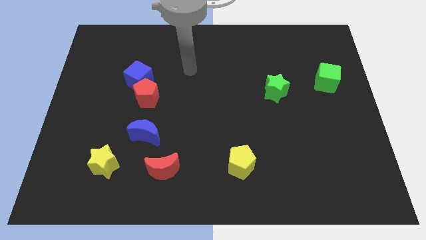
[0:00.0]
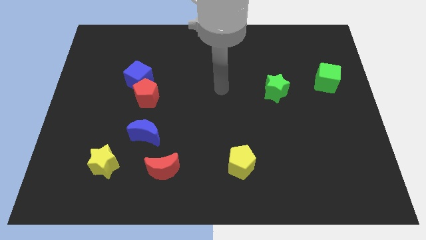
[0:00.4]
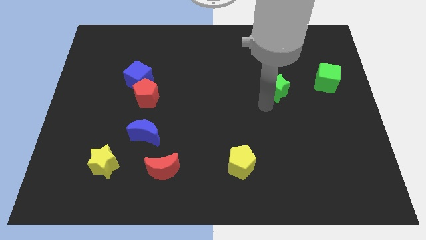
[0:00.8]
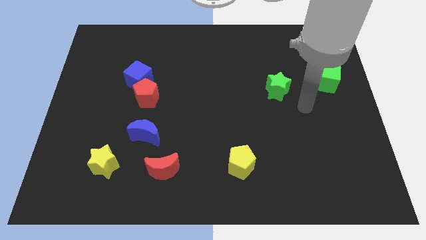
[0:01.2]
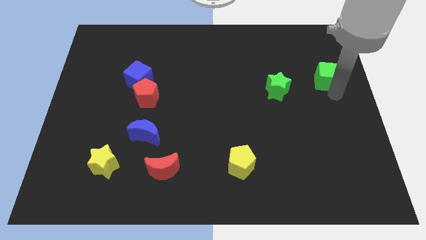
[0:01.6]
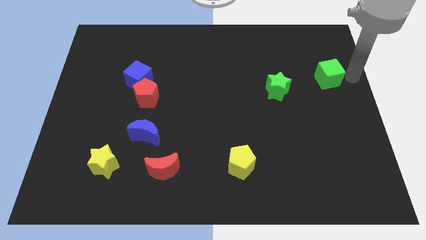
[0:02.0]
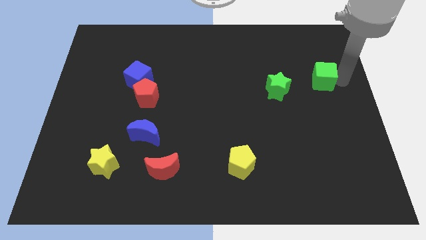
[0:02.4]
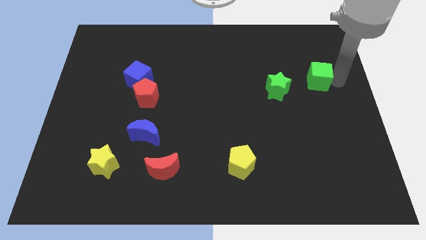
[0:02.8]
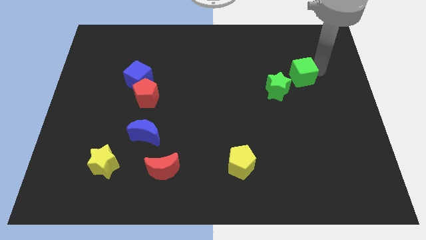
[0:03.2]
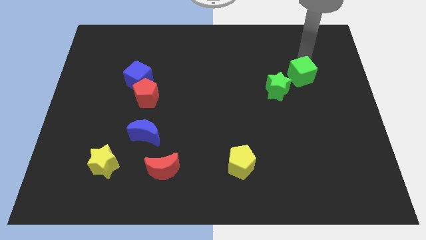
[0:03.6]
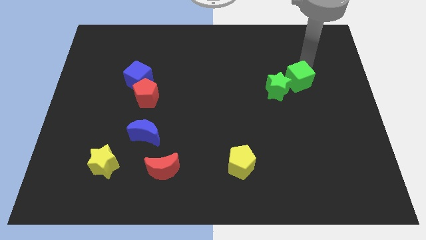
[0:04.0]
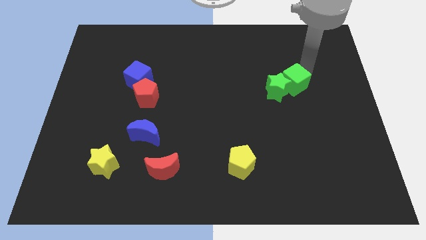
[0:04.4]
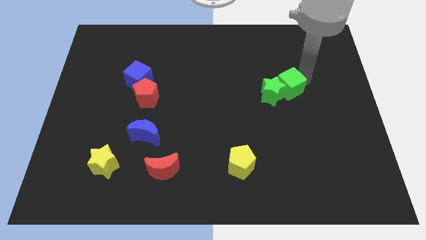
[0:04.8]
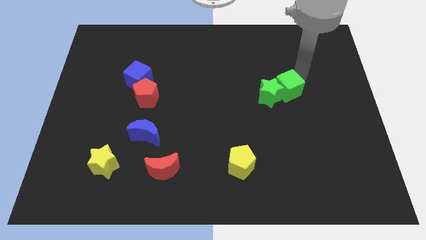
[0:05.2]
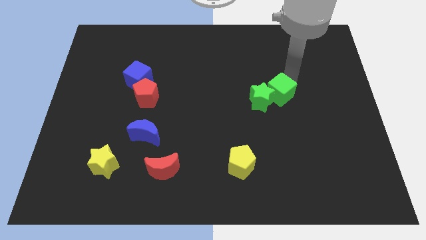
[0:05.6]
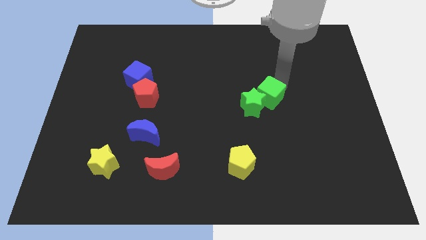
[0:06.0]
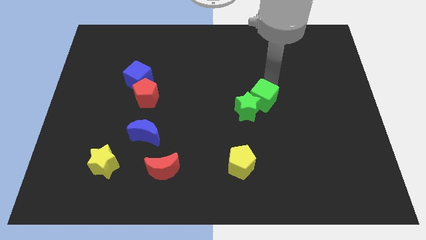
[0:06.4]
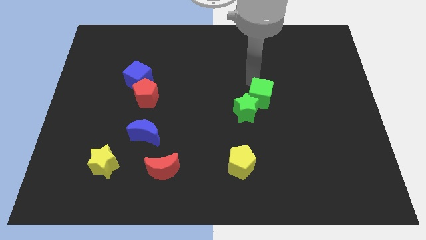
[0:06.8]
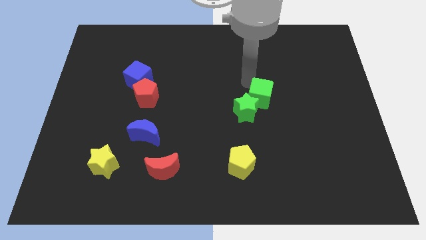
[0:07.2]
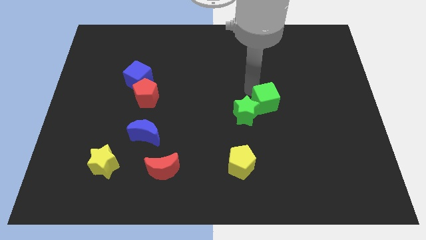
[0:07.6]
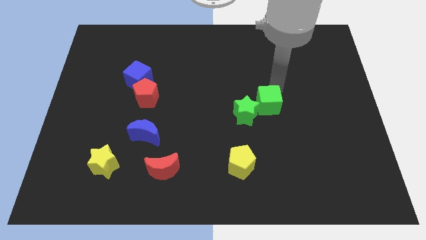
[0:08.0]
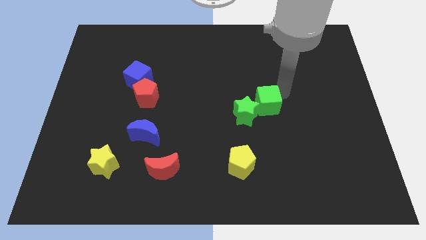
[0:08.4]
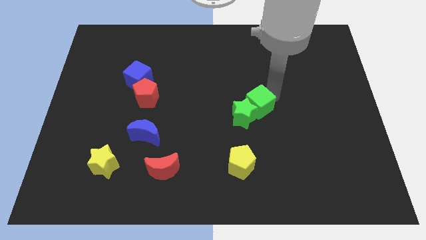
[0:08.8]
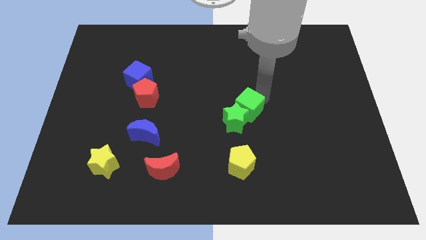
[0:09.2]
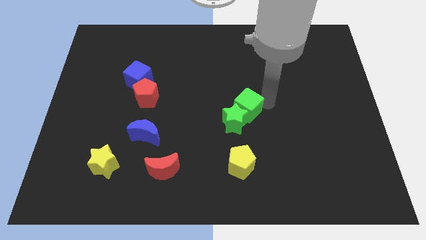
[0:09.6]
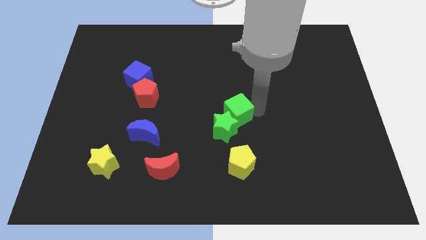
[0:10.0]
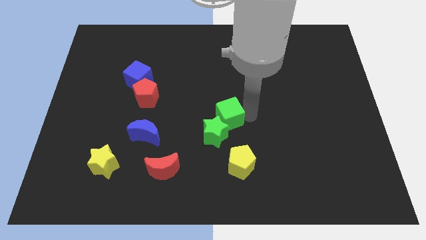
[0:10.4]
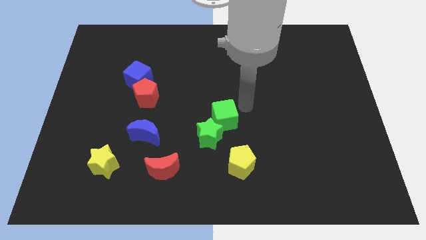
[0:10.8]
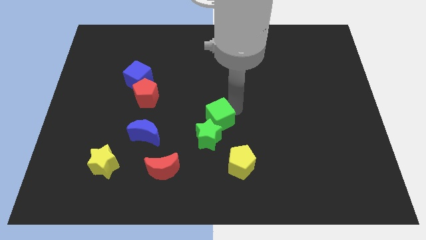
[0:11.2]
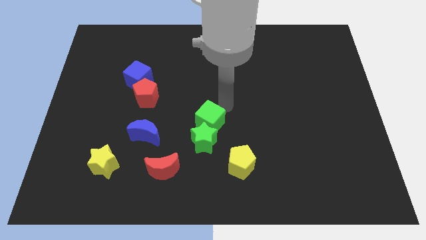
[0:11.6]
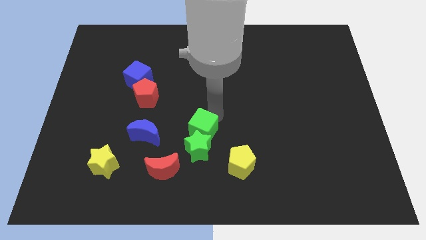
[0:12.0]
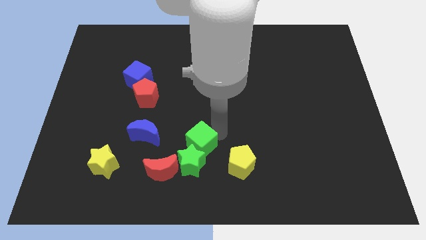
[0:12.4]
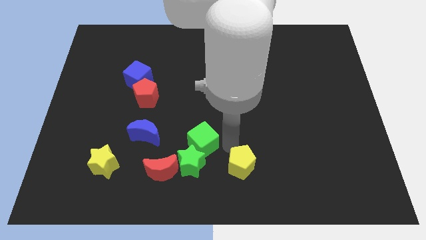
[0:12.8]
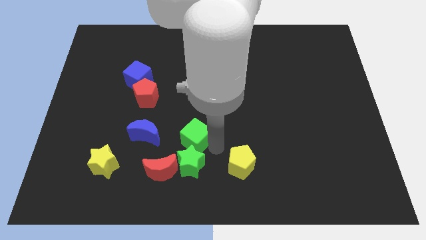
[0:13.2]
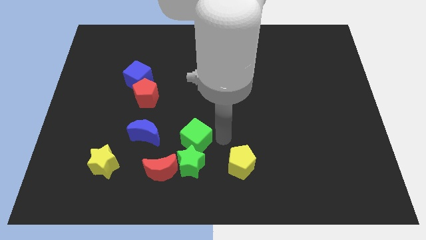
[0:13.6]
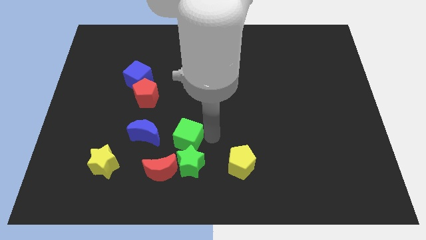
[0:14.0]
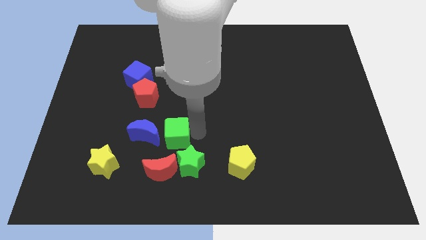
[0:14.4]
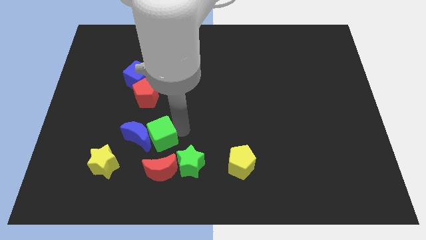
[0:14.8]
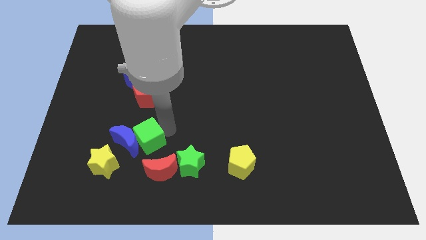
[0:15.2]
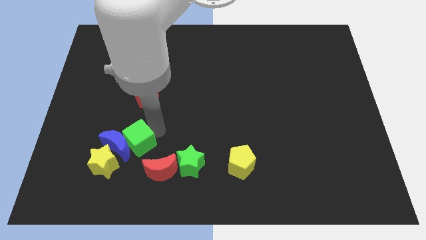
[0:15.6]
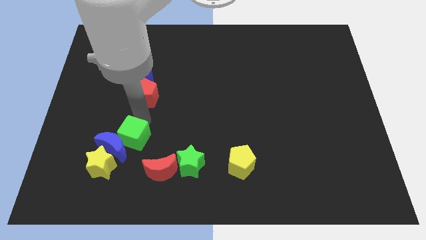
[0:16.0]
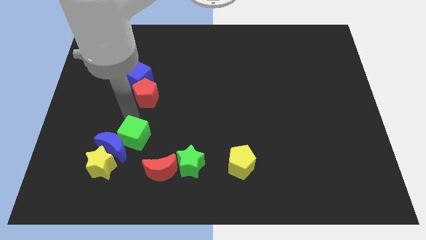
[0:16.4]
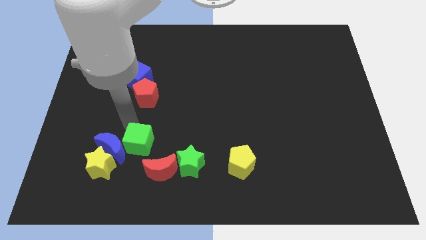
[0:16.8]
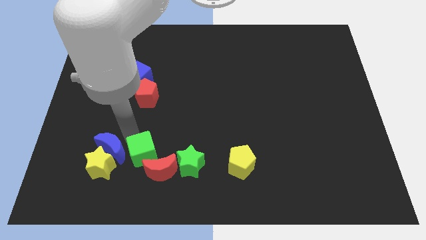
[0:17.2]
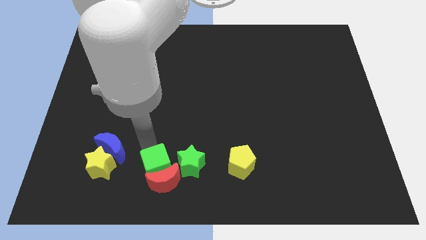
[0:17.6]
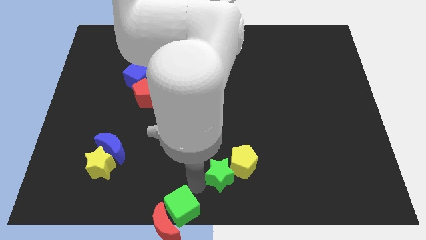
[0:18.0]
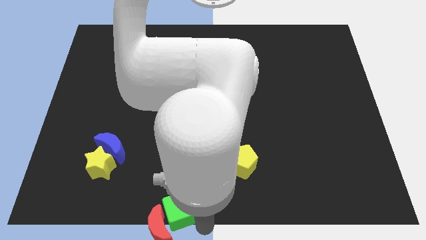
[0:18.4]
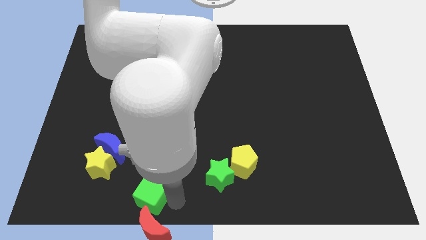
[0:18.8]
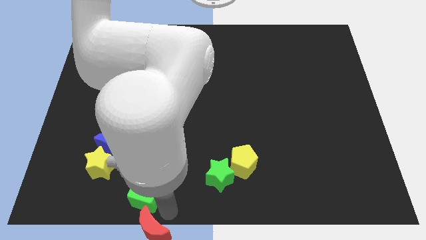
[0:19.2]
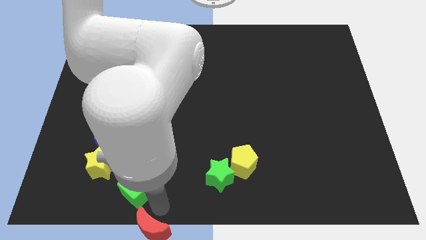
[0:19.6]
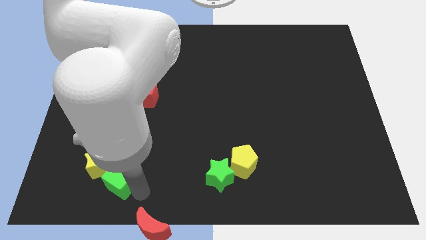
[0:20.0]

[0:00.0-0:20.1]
slide the green cube towards the yellow star

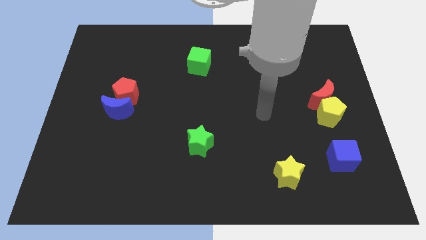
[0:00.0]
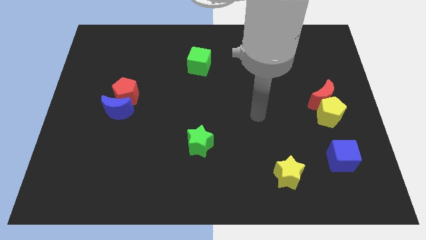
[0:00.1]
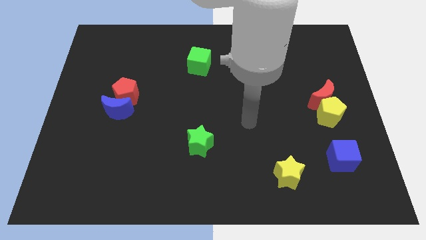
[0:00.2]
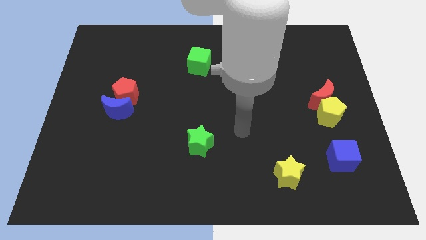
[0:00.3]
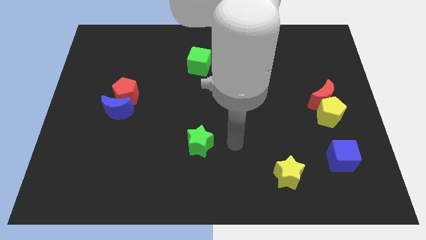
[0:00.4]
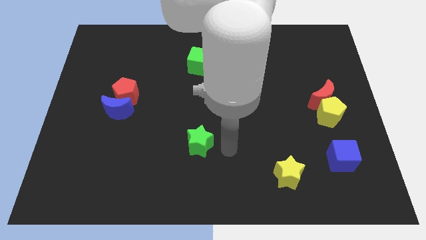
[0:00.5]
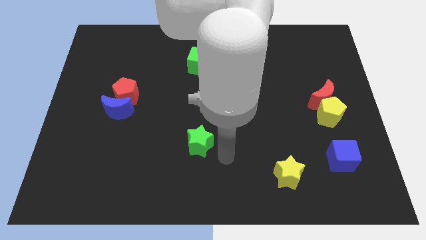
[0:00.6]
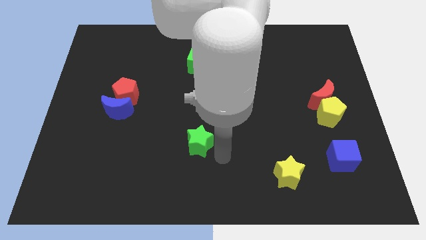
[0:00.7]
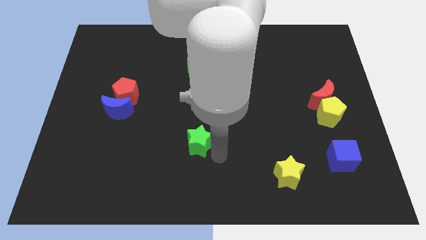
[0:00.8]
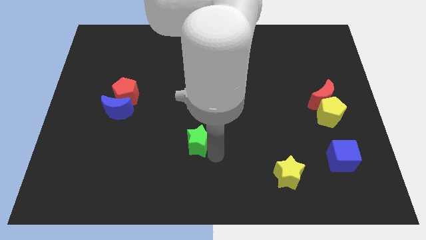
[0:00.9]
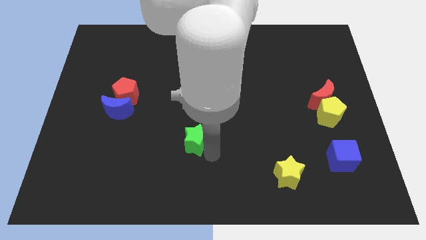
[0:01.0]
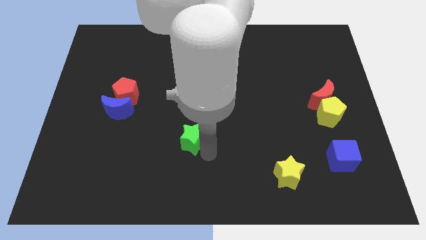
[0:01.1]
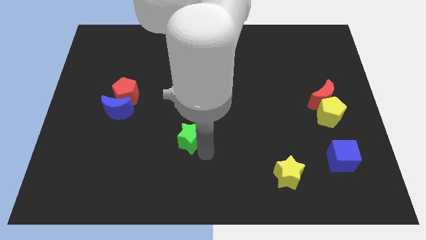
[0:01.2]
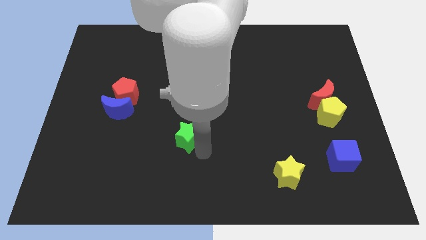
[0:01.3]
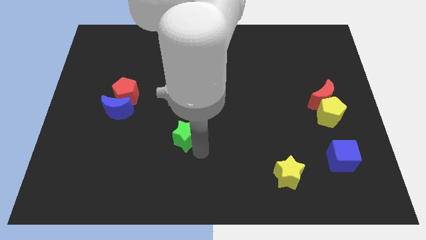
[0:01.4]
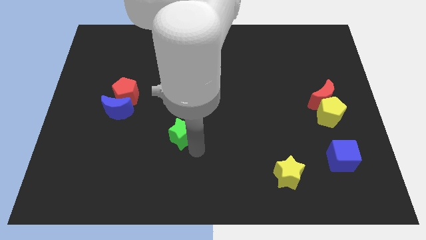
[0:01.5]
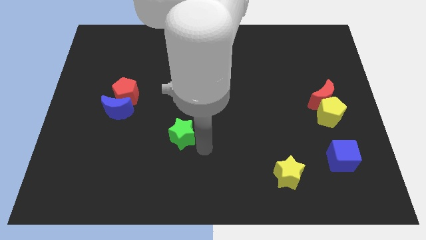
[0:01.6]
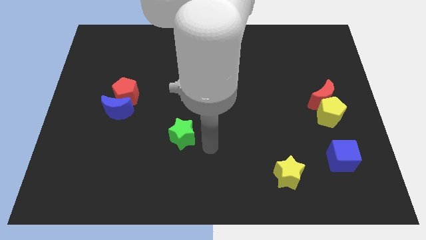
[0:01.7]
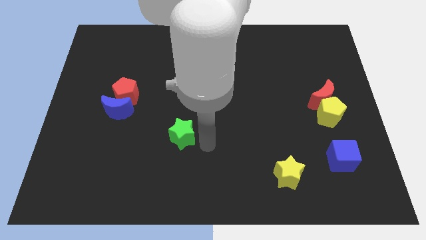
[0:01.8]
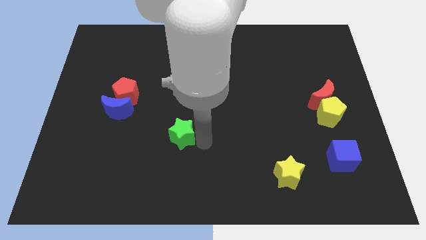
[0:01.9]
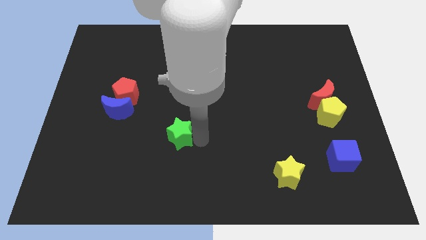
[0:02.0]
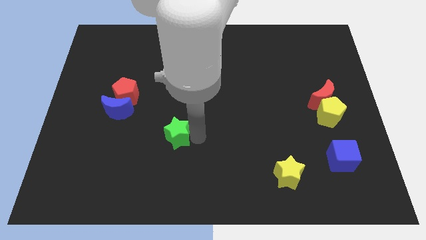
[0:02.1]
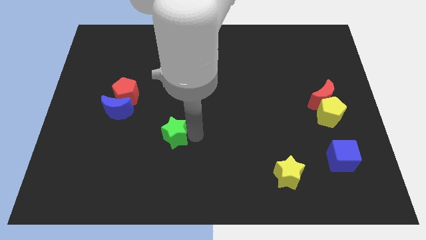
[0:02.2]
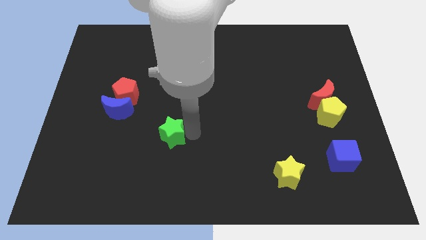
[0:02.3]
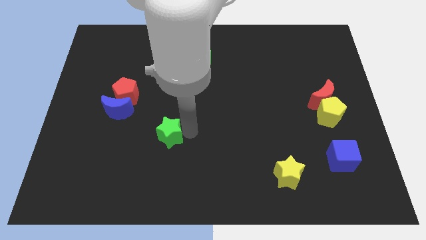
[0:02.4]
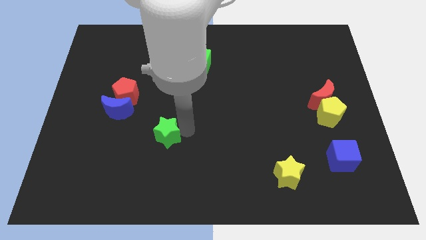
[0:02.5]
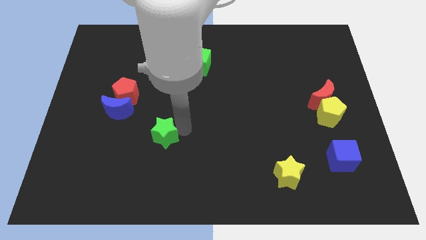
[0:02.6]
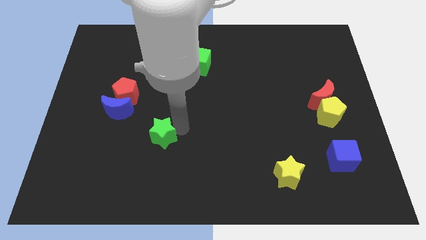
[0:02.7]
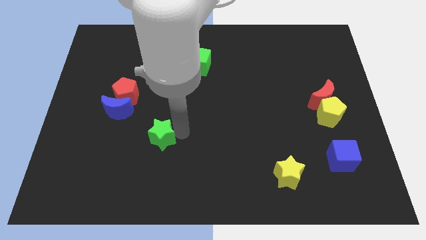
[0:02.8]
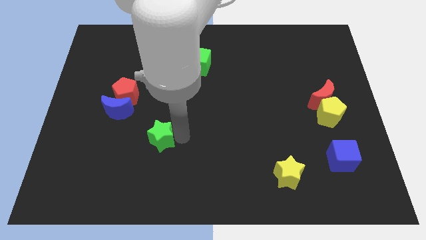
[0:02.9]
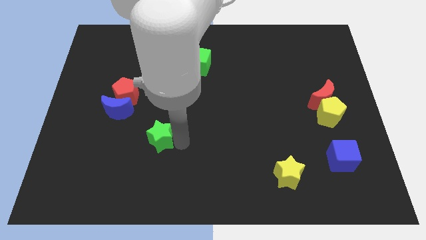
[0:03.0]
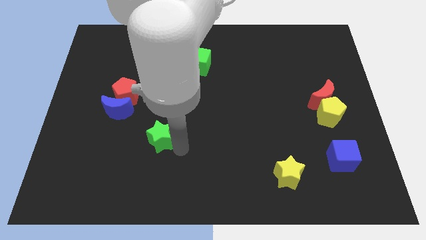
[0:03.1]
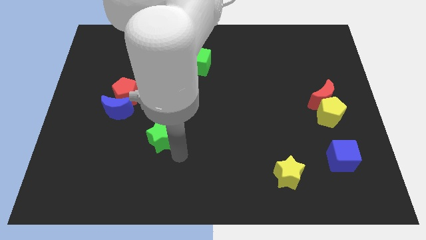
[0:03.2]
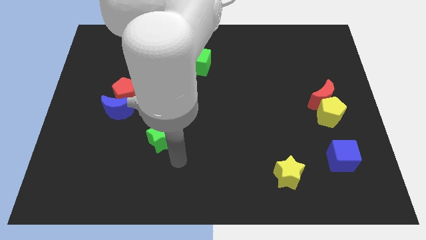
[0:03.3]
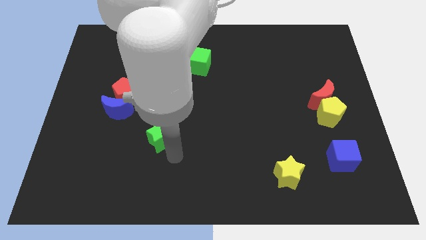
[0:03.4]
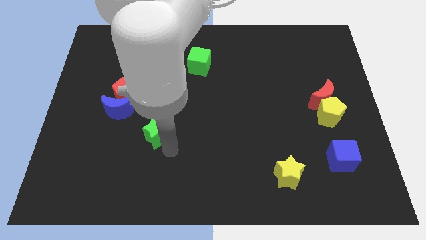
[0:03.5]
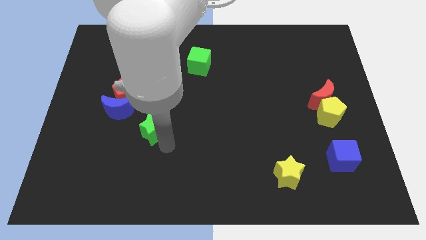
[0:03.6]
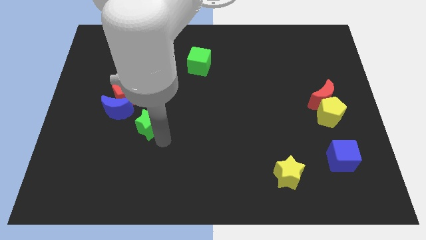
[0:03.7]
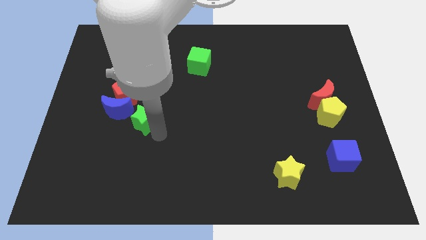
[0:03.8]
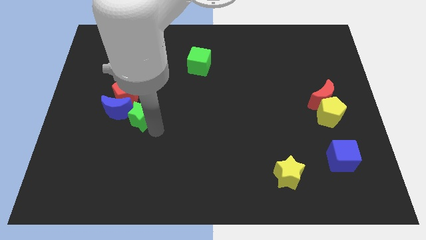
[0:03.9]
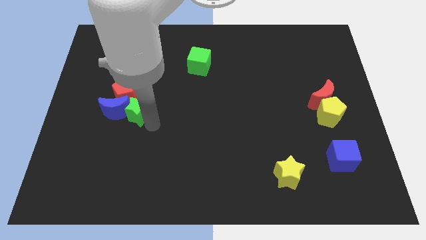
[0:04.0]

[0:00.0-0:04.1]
slide the green star close to the blue moon
